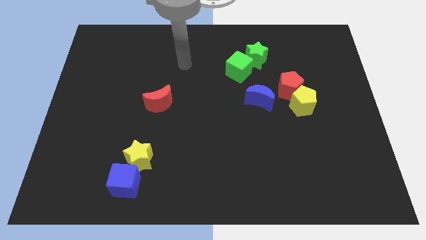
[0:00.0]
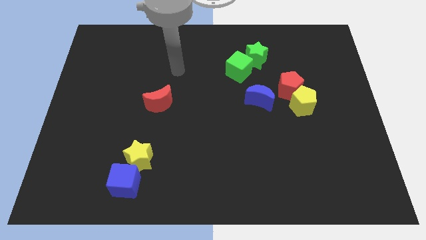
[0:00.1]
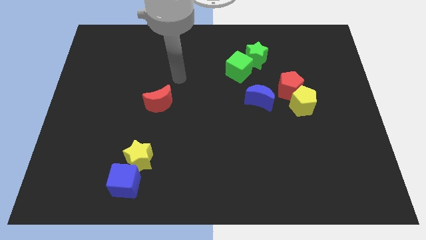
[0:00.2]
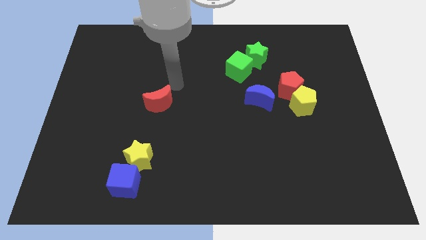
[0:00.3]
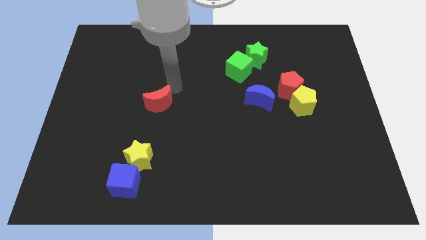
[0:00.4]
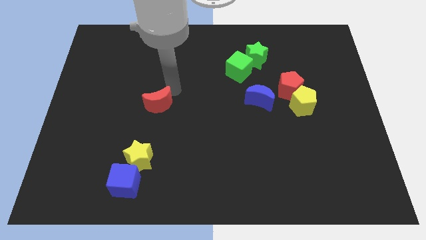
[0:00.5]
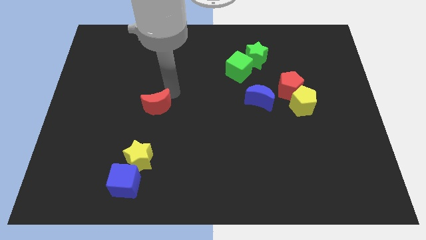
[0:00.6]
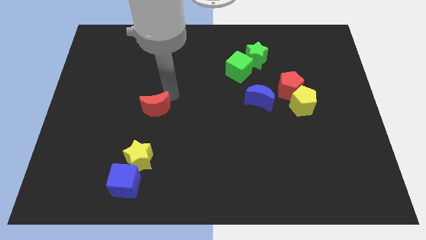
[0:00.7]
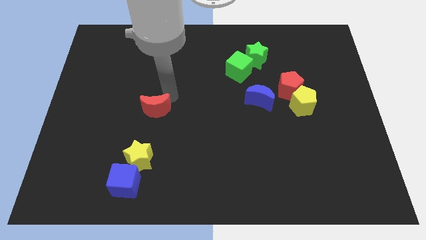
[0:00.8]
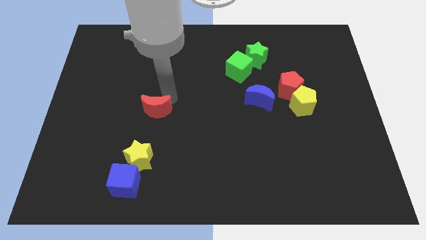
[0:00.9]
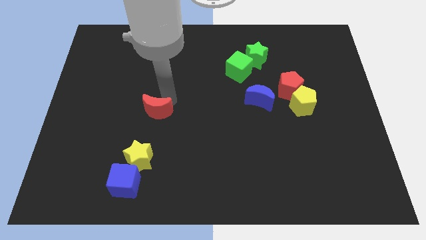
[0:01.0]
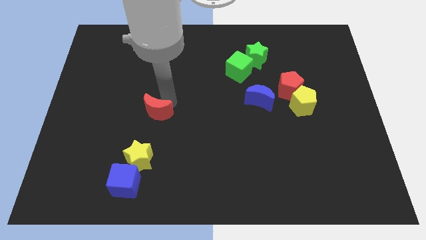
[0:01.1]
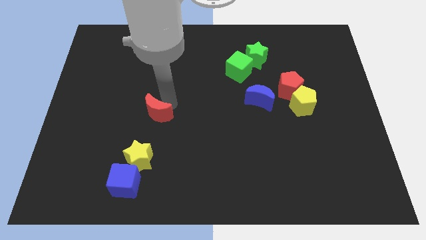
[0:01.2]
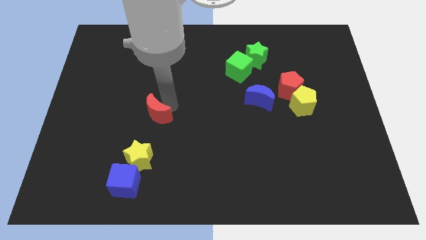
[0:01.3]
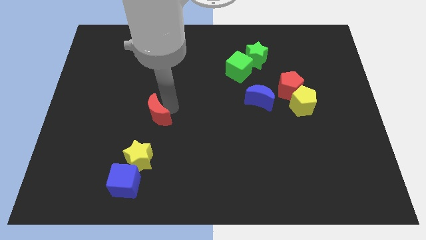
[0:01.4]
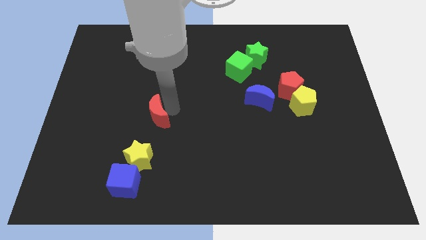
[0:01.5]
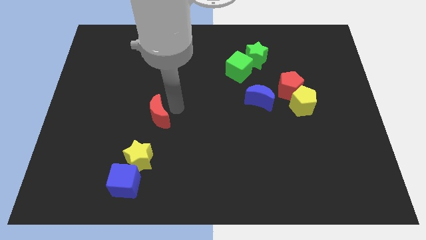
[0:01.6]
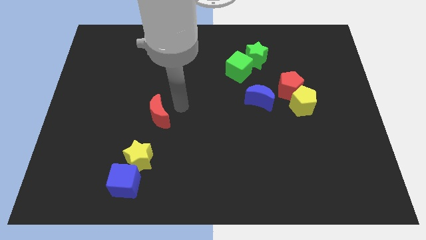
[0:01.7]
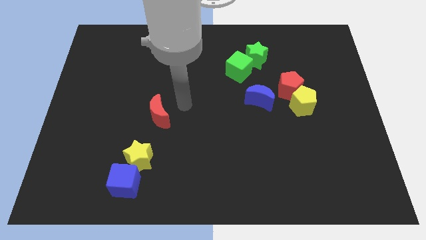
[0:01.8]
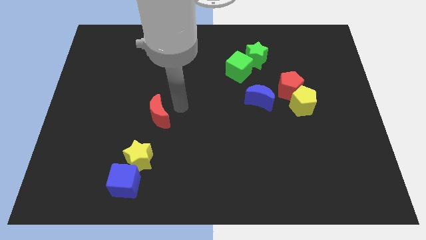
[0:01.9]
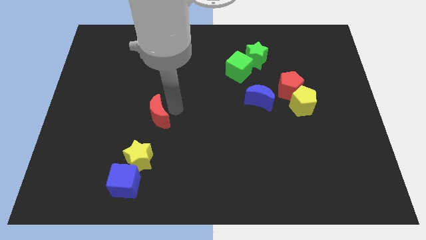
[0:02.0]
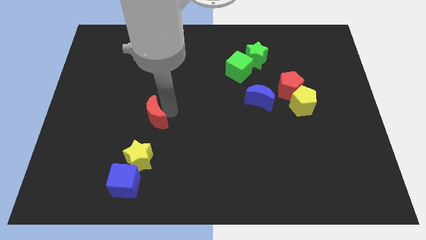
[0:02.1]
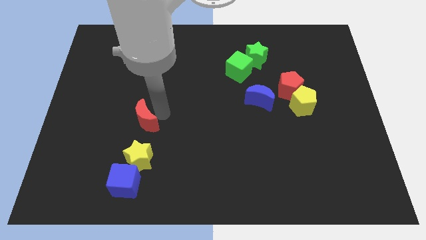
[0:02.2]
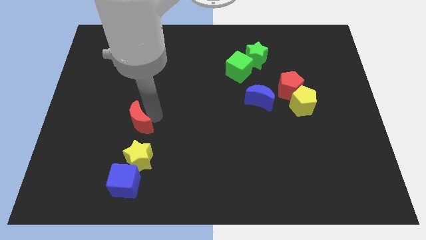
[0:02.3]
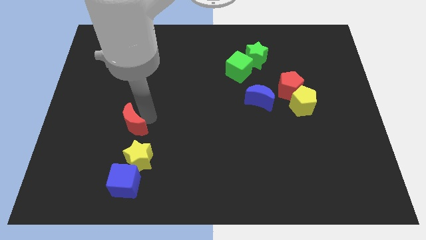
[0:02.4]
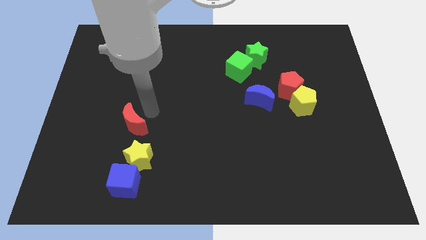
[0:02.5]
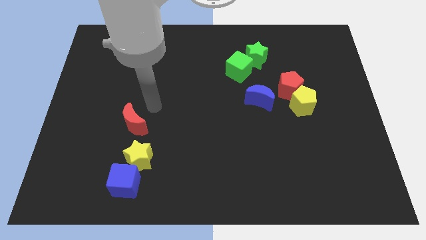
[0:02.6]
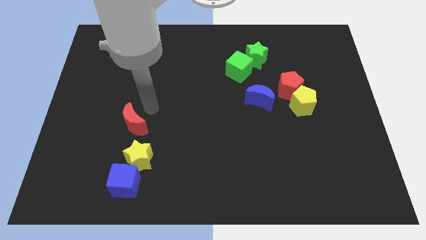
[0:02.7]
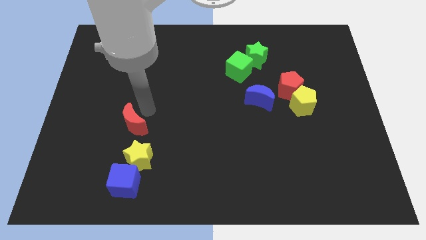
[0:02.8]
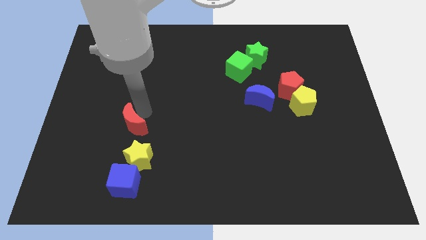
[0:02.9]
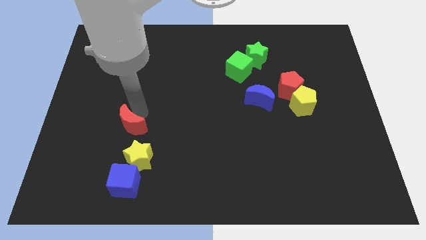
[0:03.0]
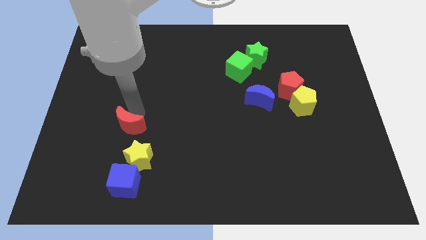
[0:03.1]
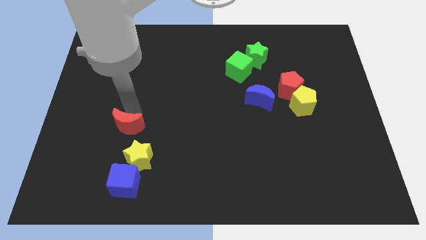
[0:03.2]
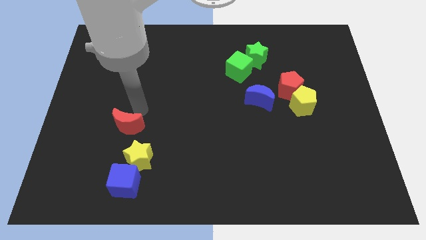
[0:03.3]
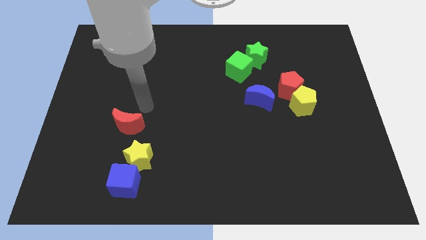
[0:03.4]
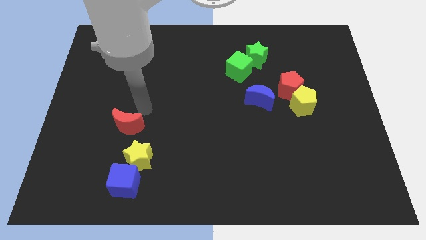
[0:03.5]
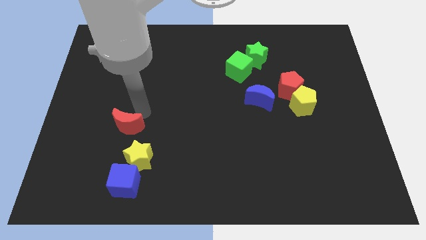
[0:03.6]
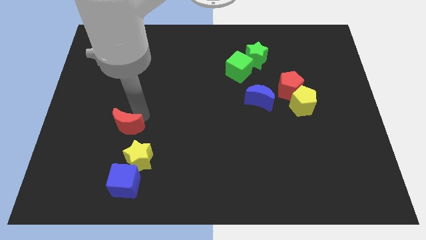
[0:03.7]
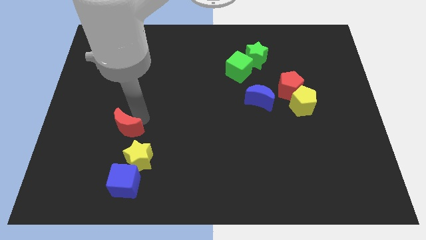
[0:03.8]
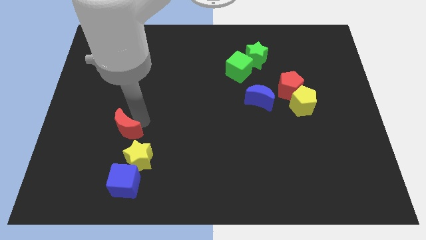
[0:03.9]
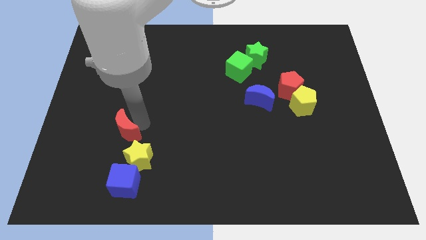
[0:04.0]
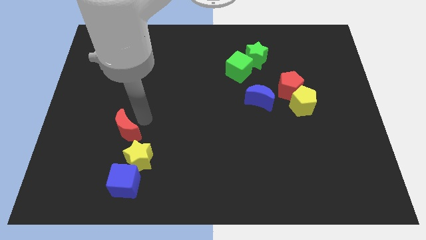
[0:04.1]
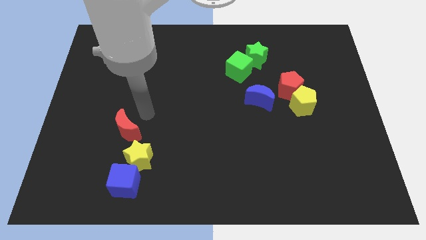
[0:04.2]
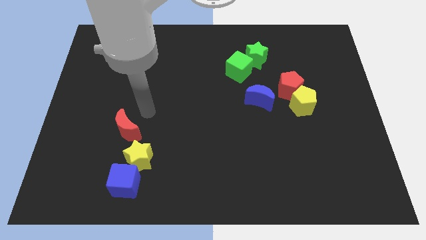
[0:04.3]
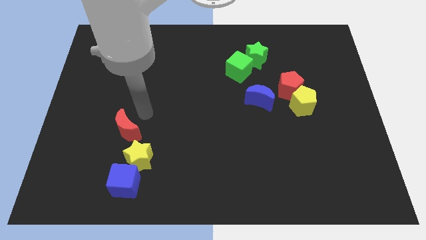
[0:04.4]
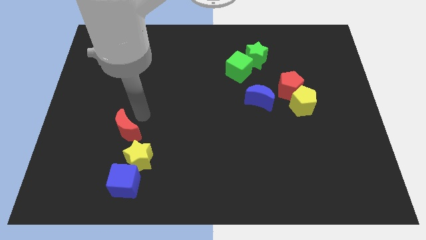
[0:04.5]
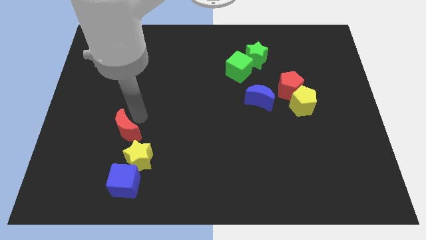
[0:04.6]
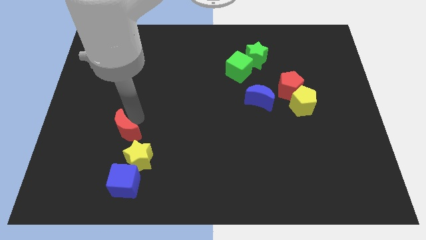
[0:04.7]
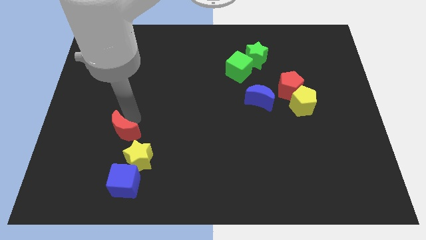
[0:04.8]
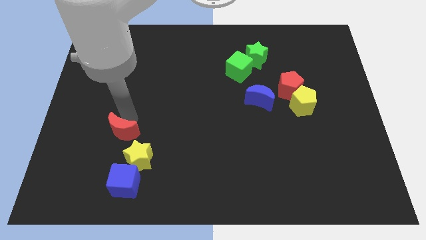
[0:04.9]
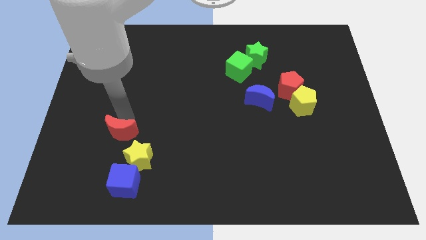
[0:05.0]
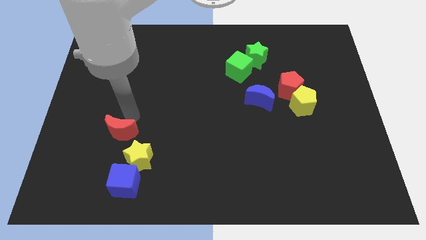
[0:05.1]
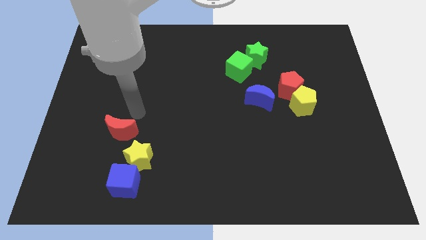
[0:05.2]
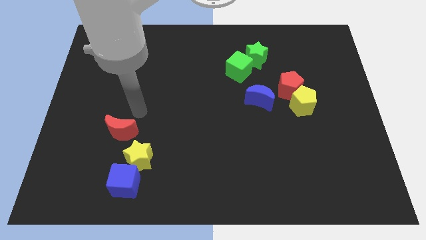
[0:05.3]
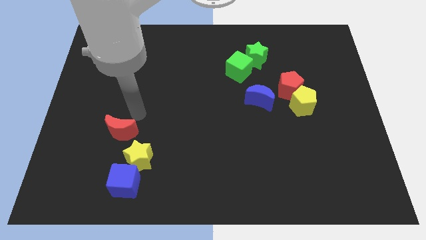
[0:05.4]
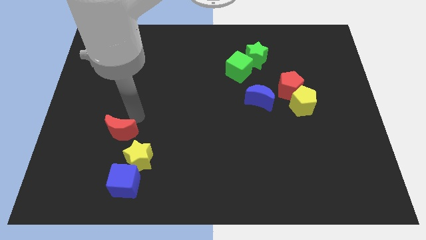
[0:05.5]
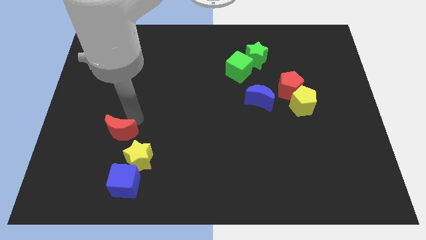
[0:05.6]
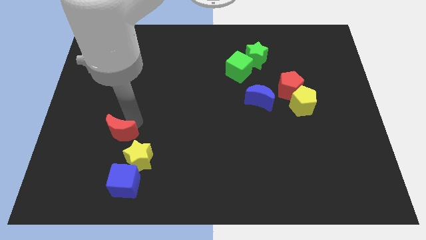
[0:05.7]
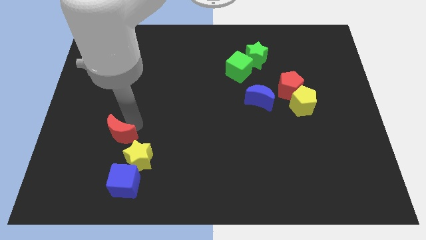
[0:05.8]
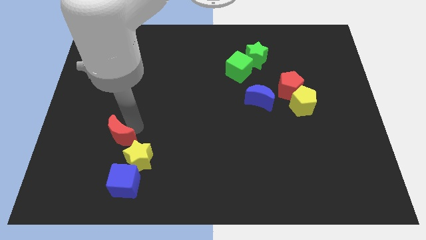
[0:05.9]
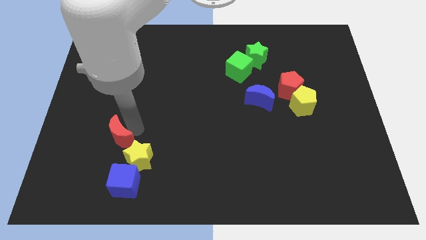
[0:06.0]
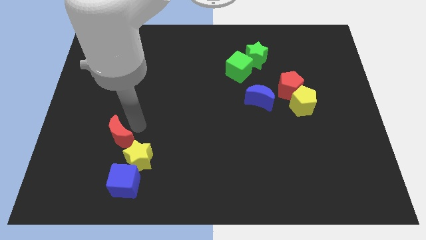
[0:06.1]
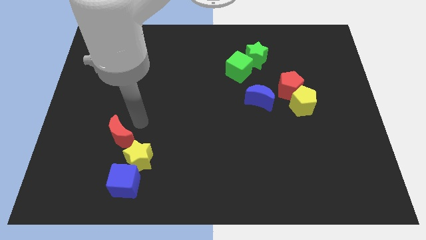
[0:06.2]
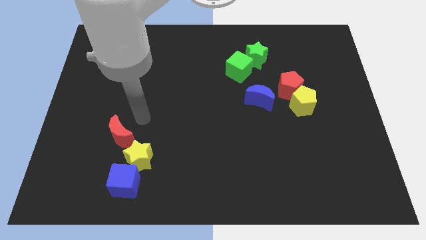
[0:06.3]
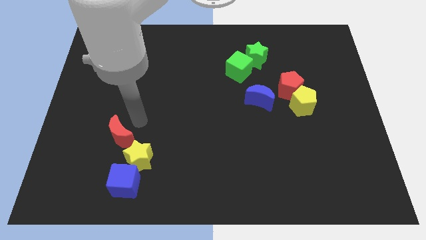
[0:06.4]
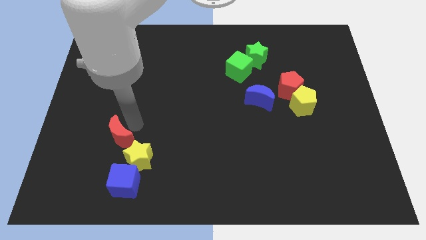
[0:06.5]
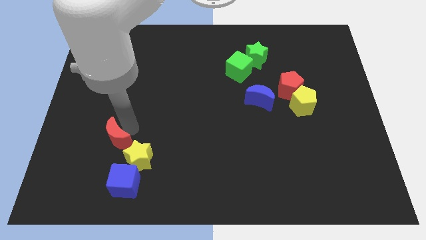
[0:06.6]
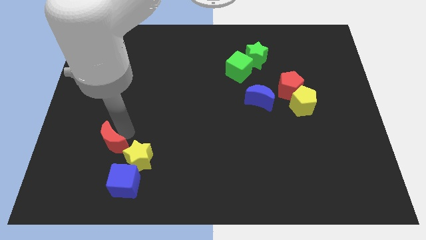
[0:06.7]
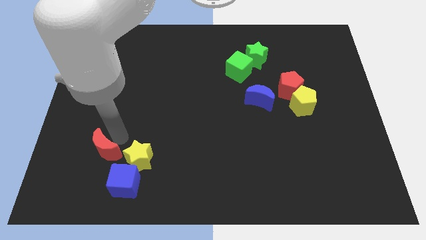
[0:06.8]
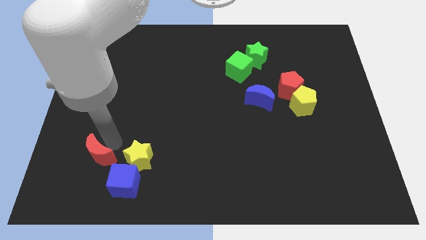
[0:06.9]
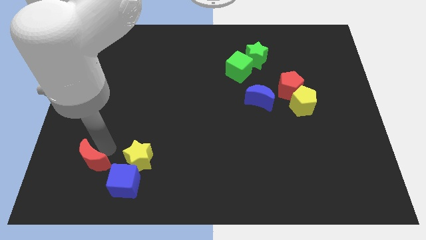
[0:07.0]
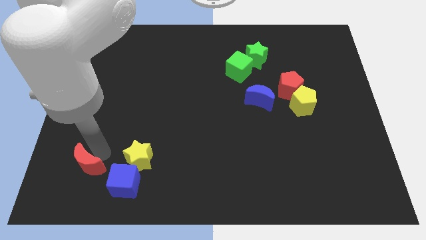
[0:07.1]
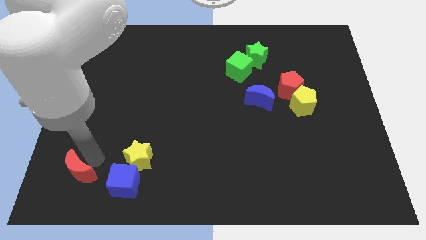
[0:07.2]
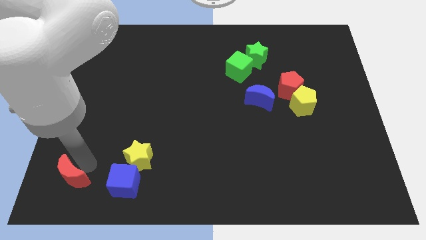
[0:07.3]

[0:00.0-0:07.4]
push the red moon to the bottom left
